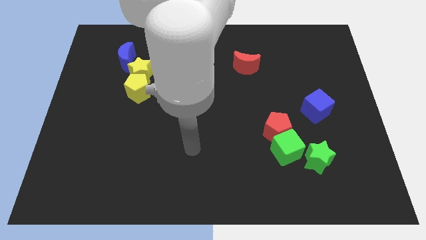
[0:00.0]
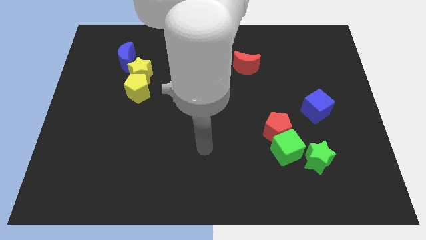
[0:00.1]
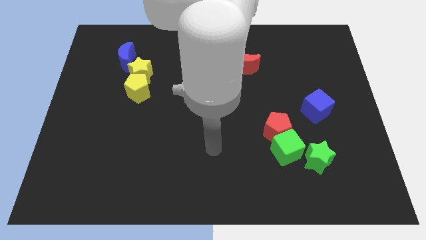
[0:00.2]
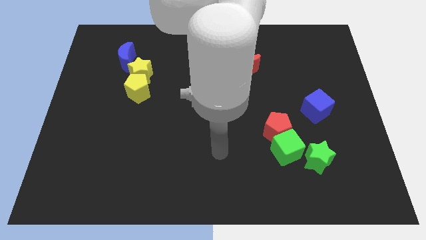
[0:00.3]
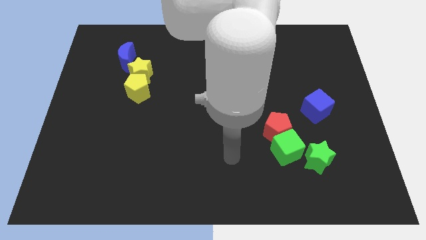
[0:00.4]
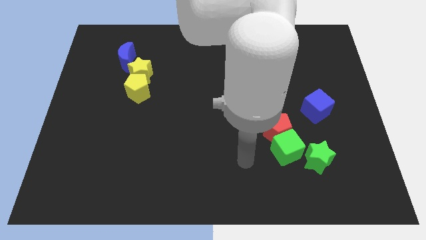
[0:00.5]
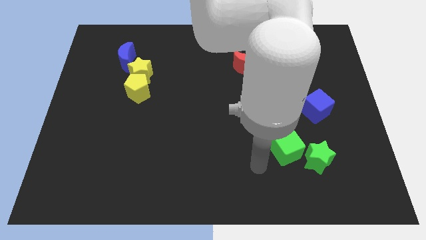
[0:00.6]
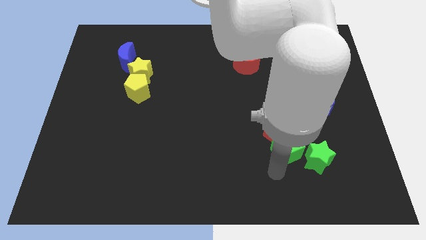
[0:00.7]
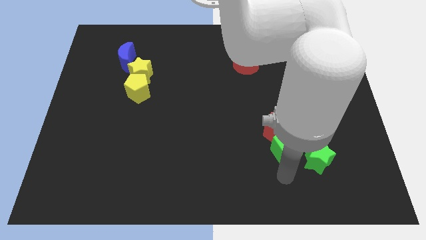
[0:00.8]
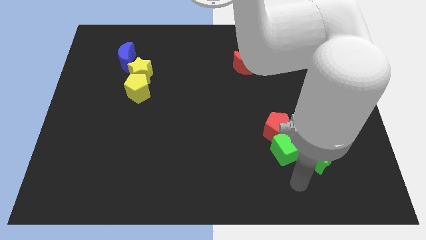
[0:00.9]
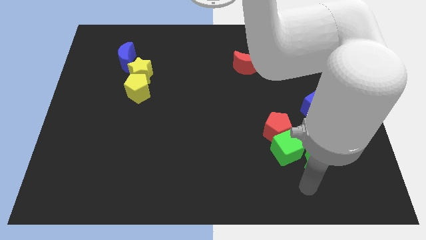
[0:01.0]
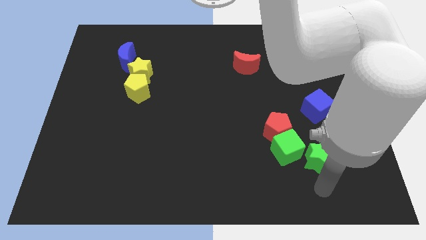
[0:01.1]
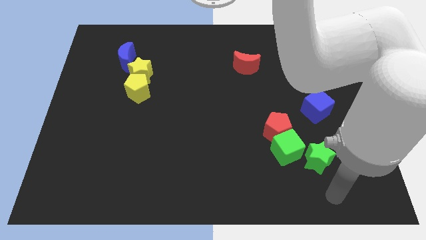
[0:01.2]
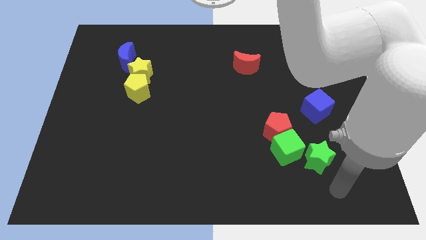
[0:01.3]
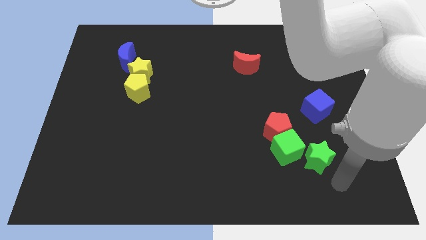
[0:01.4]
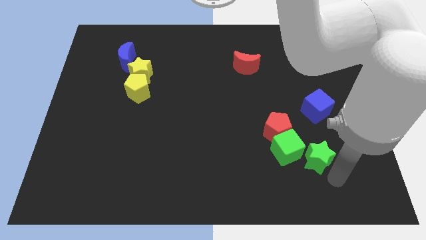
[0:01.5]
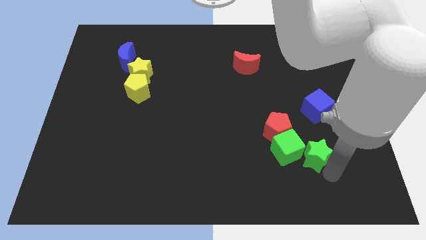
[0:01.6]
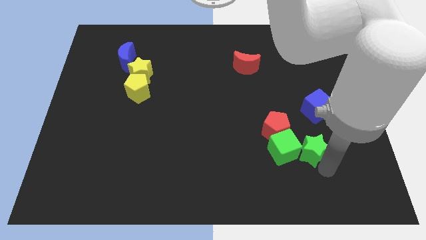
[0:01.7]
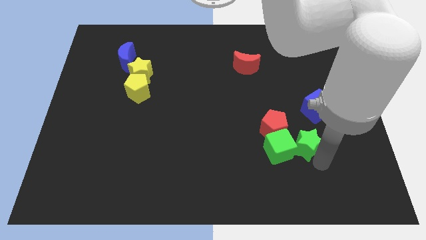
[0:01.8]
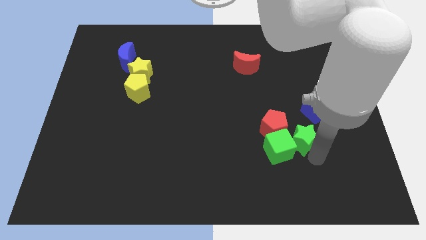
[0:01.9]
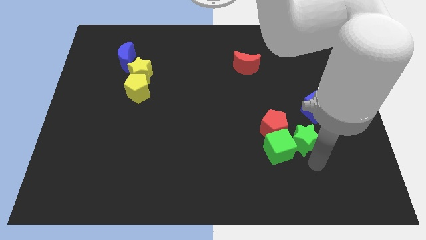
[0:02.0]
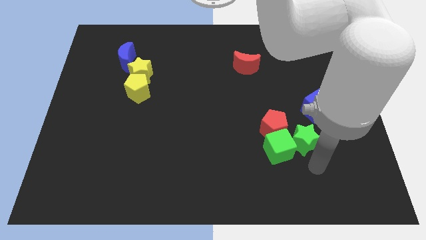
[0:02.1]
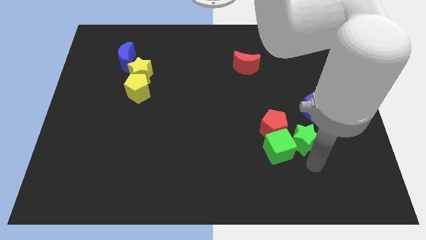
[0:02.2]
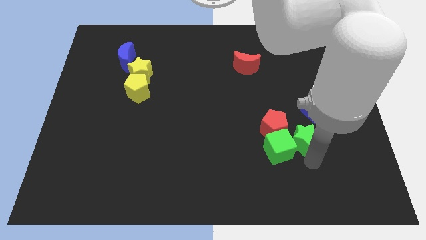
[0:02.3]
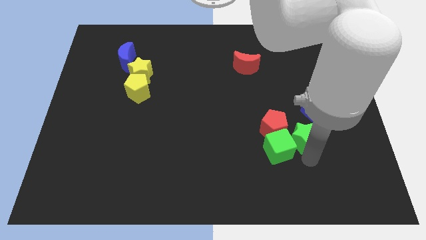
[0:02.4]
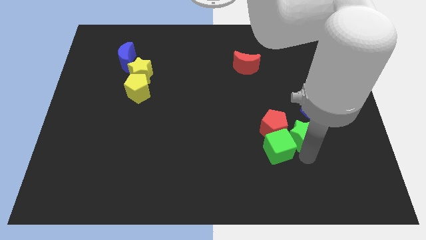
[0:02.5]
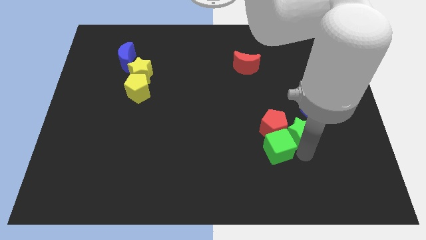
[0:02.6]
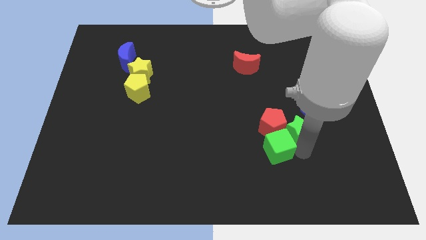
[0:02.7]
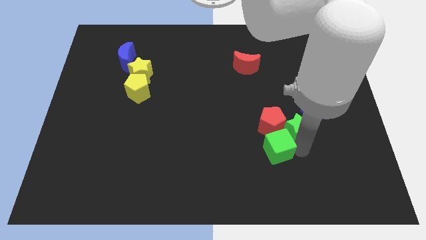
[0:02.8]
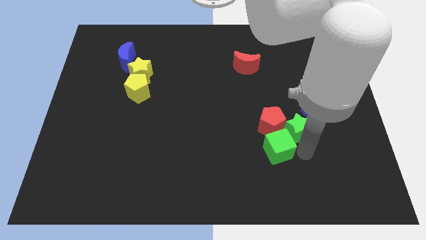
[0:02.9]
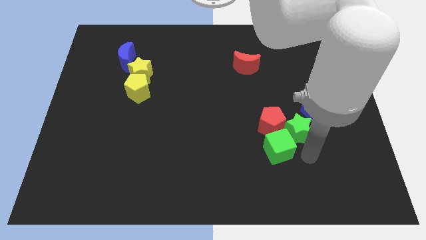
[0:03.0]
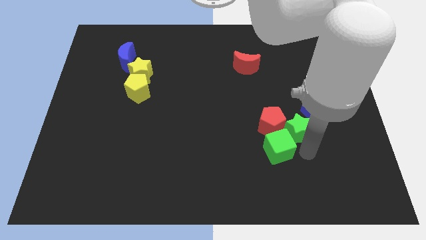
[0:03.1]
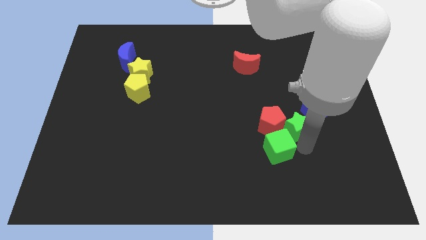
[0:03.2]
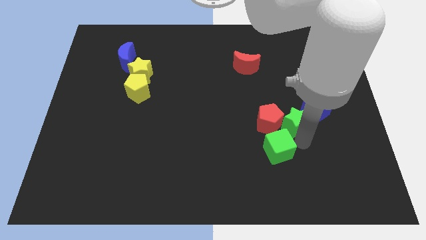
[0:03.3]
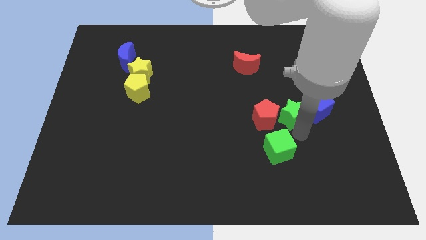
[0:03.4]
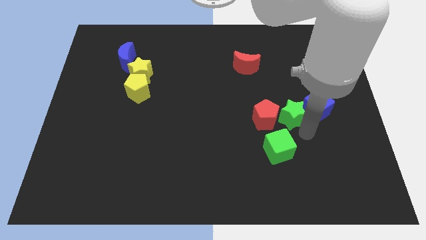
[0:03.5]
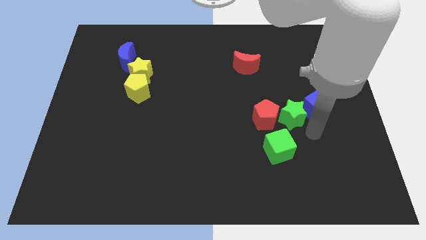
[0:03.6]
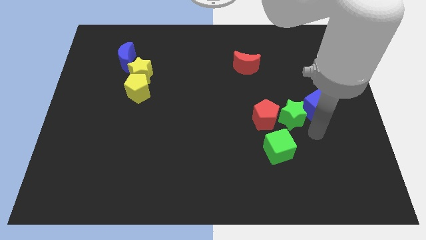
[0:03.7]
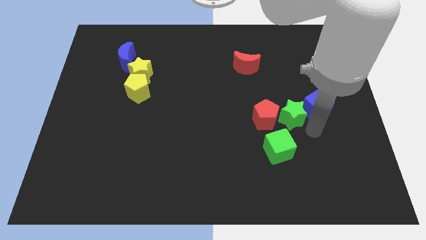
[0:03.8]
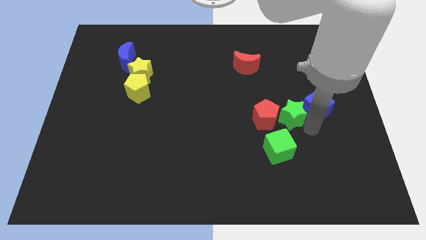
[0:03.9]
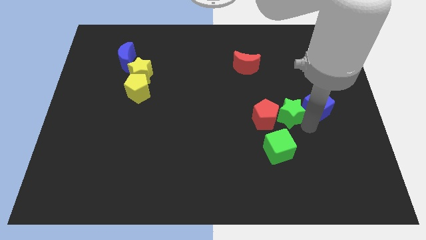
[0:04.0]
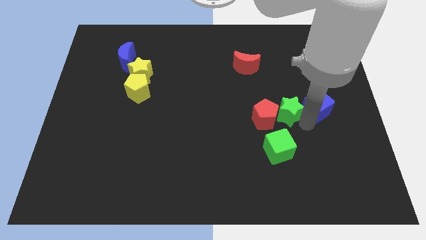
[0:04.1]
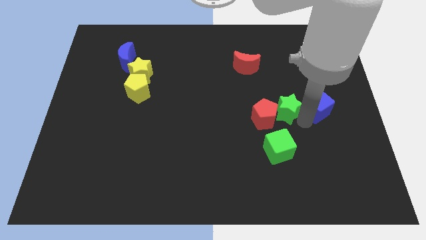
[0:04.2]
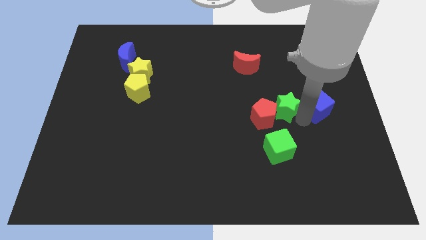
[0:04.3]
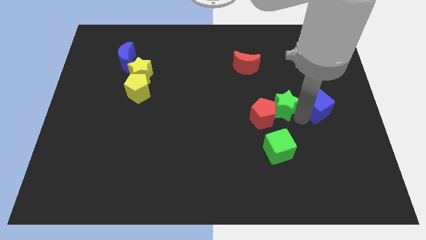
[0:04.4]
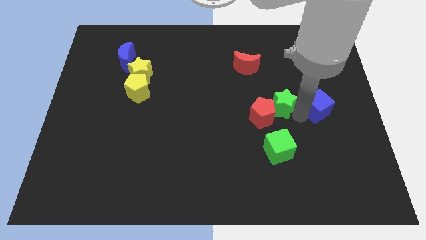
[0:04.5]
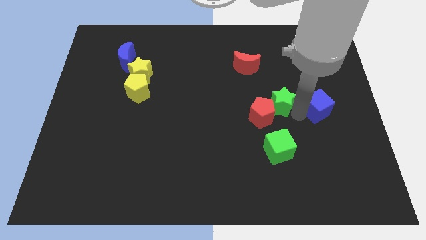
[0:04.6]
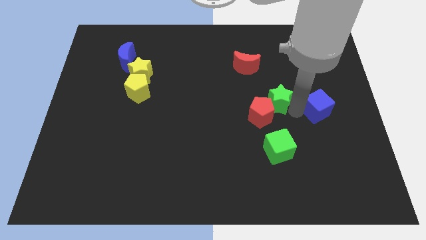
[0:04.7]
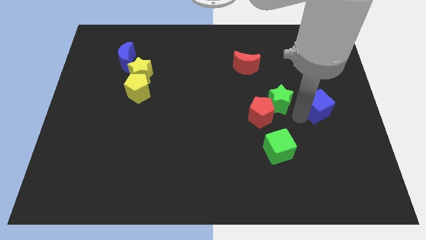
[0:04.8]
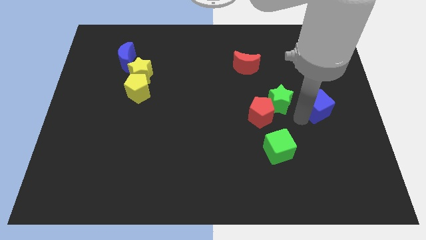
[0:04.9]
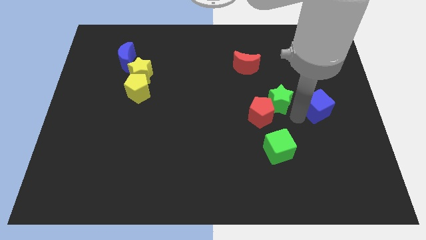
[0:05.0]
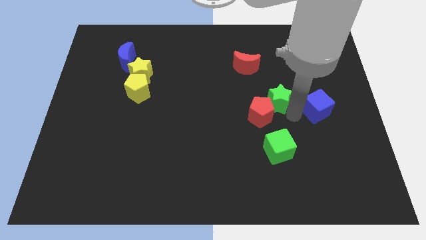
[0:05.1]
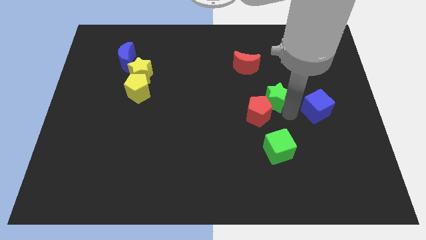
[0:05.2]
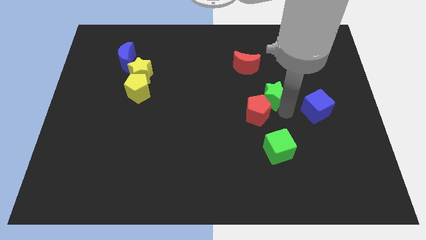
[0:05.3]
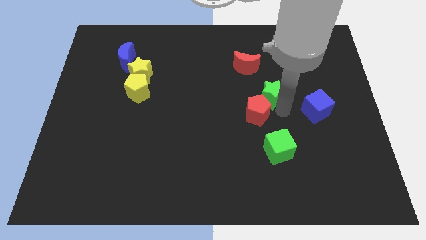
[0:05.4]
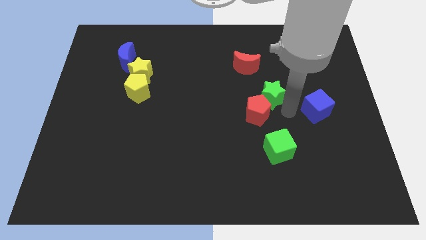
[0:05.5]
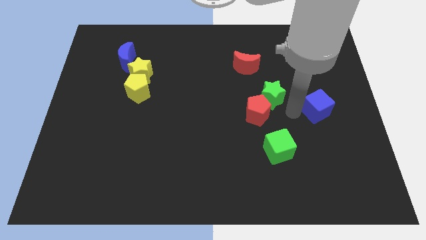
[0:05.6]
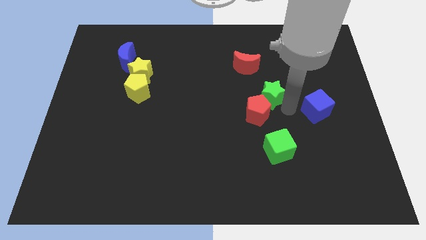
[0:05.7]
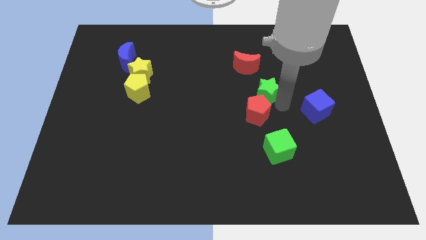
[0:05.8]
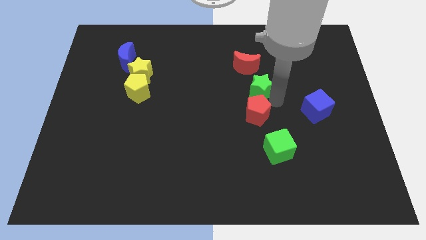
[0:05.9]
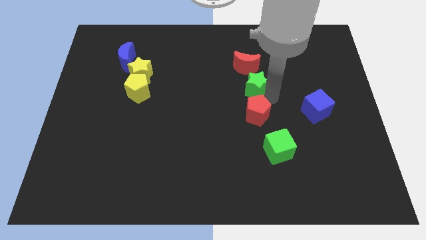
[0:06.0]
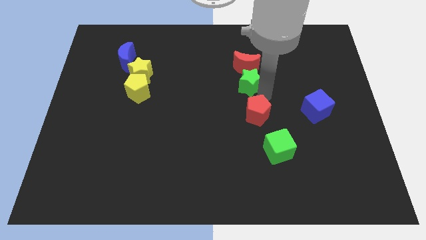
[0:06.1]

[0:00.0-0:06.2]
push the green star towards the red moon

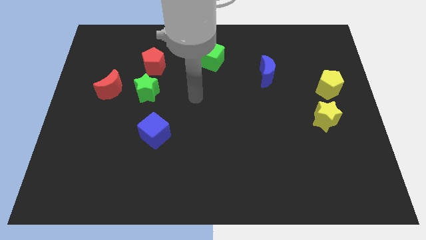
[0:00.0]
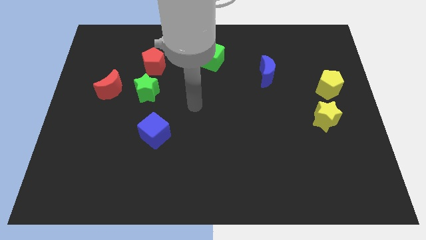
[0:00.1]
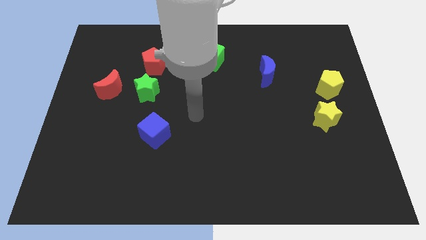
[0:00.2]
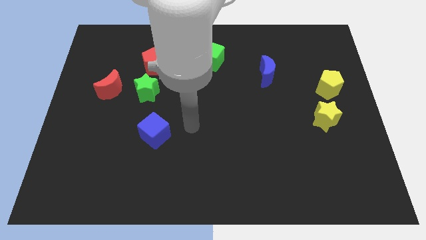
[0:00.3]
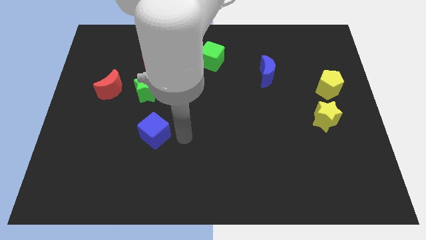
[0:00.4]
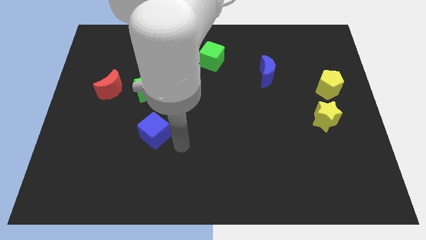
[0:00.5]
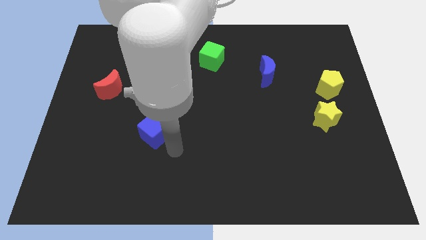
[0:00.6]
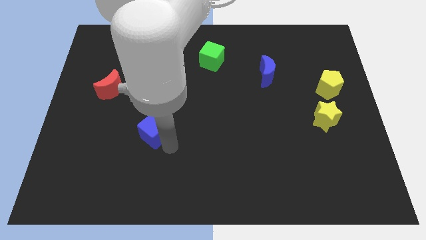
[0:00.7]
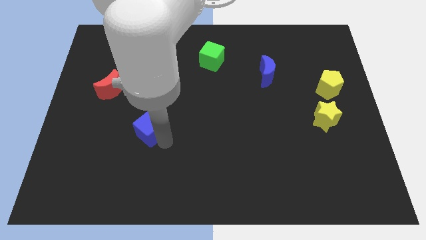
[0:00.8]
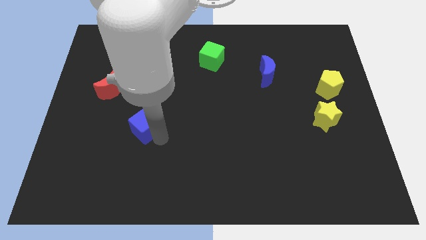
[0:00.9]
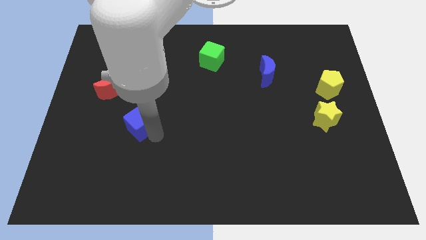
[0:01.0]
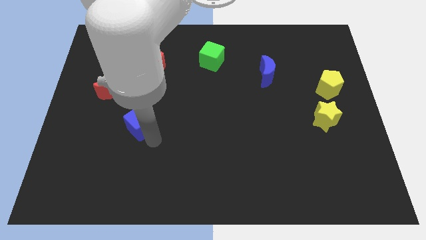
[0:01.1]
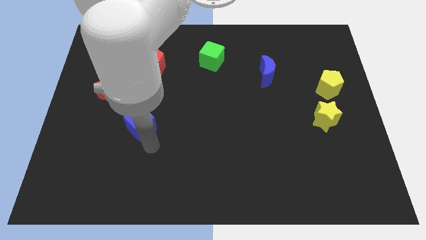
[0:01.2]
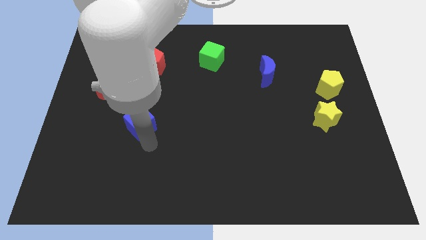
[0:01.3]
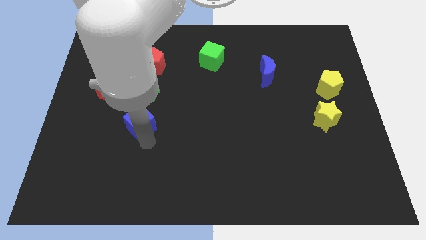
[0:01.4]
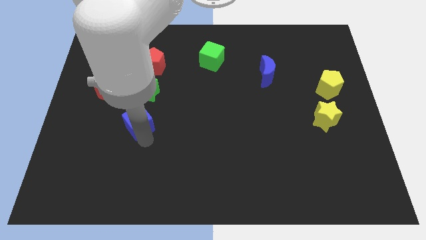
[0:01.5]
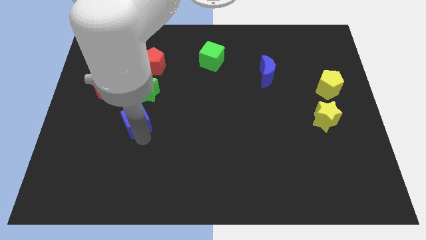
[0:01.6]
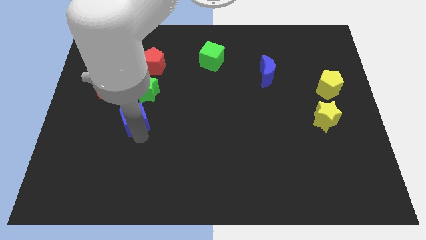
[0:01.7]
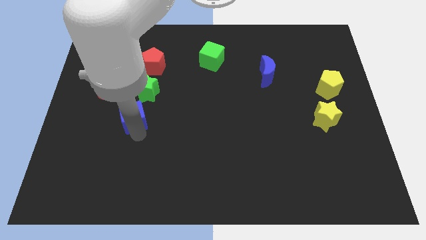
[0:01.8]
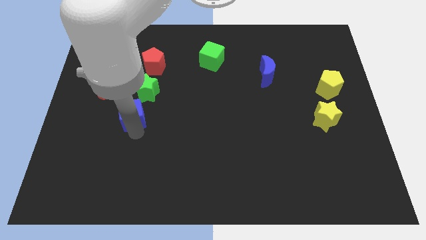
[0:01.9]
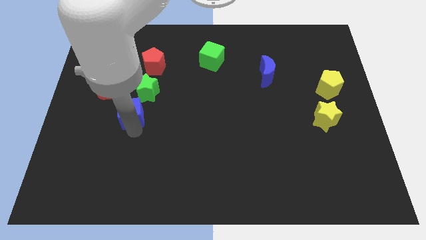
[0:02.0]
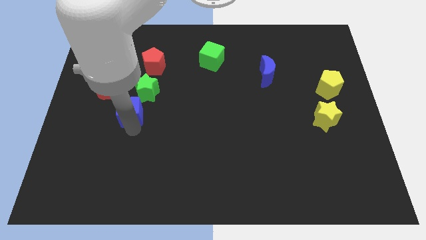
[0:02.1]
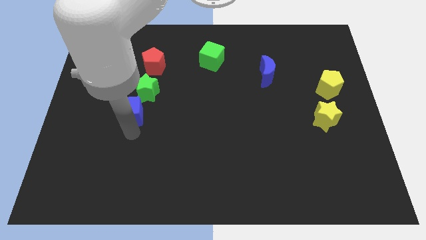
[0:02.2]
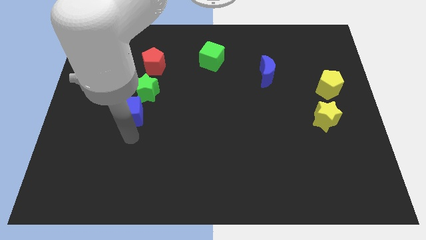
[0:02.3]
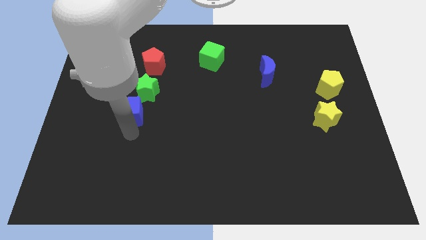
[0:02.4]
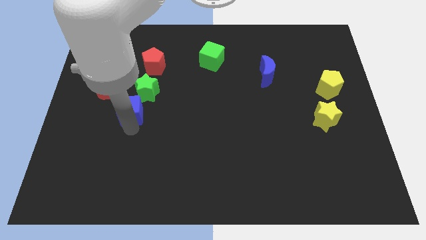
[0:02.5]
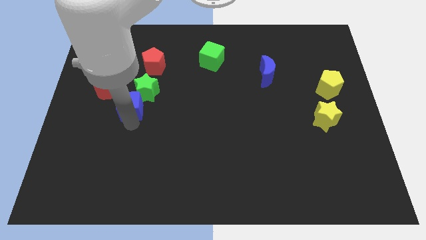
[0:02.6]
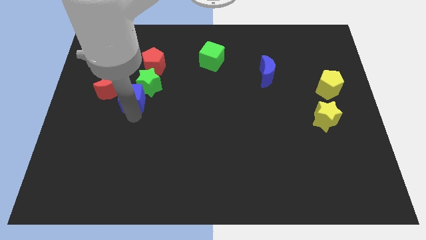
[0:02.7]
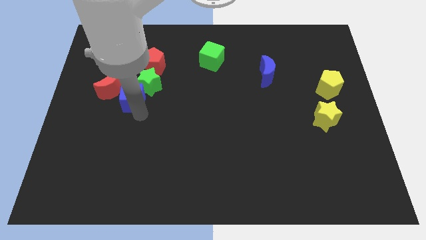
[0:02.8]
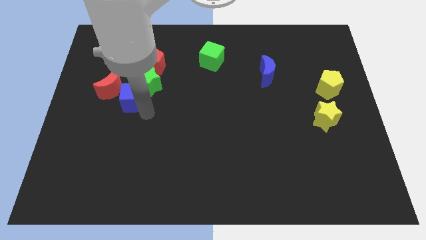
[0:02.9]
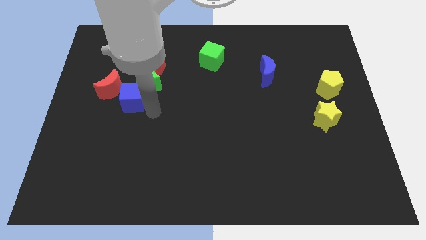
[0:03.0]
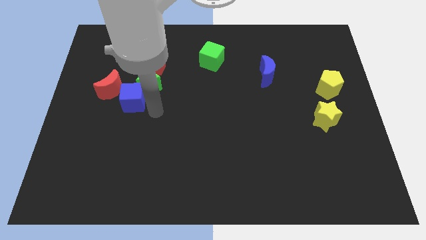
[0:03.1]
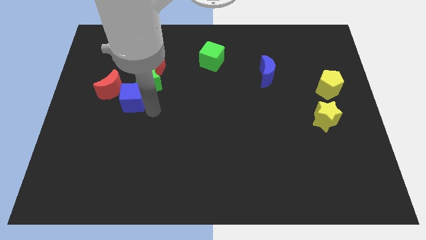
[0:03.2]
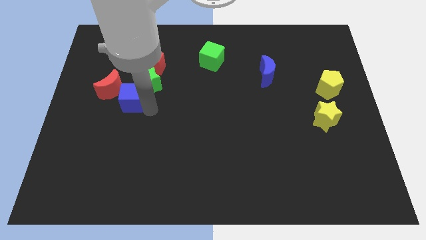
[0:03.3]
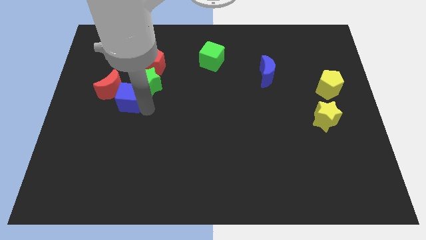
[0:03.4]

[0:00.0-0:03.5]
push the blue cube to the red moon
